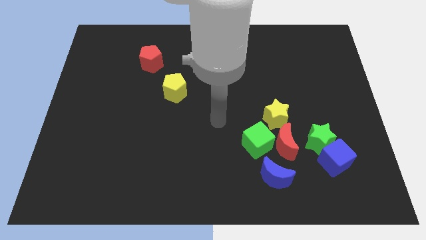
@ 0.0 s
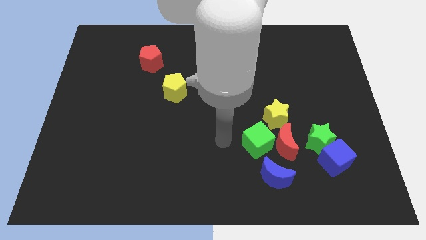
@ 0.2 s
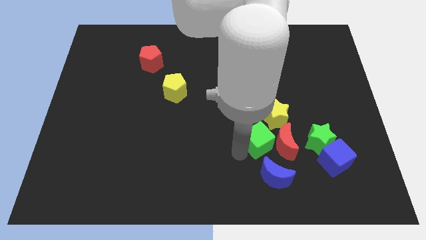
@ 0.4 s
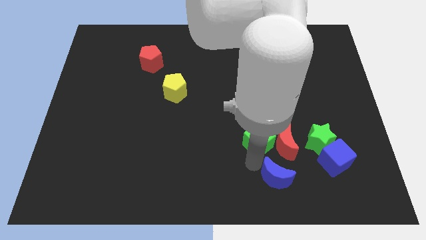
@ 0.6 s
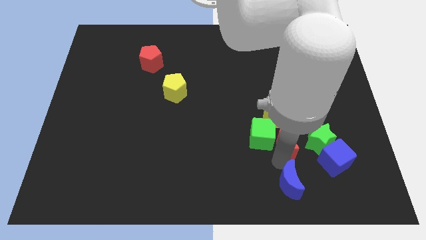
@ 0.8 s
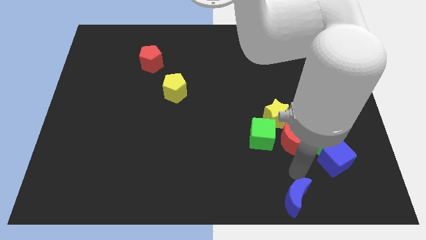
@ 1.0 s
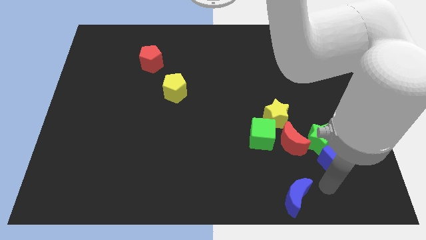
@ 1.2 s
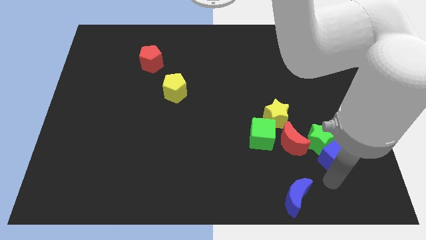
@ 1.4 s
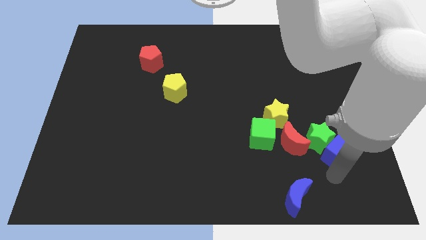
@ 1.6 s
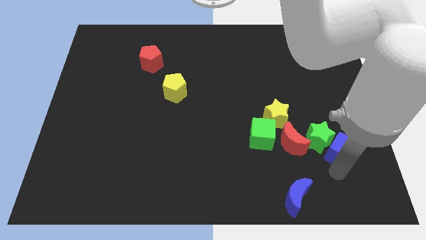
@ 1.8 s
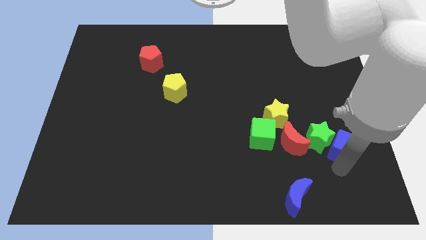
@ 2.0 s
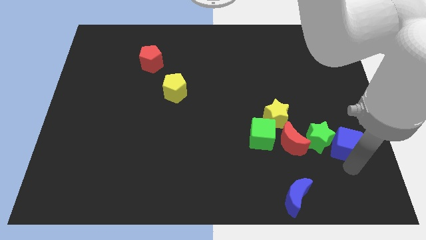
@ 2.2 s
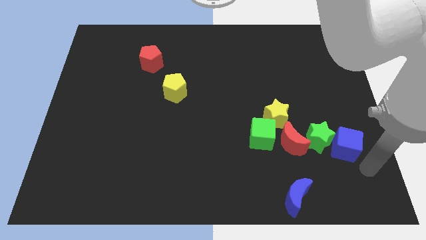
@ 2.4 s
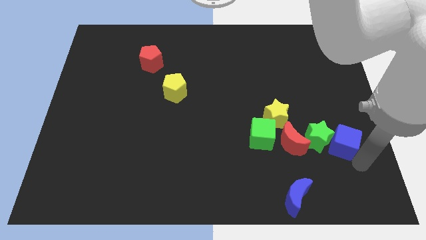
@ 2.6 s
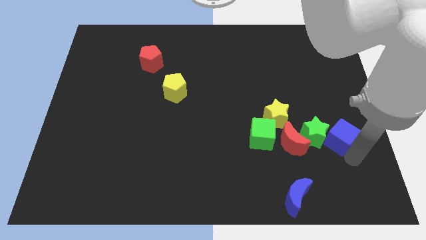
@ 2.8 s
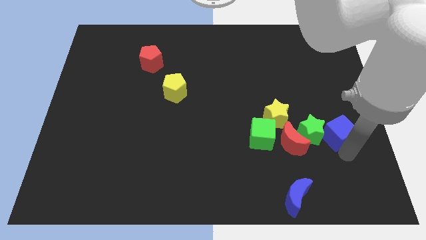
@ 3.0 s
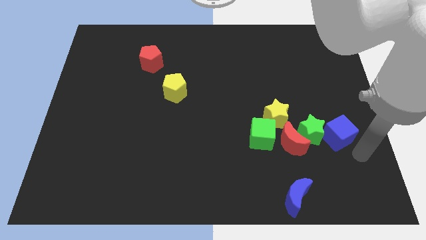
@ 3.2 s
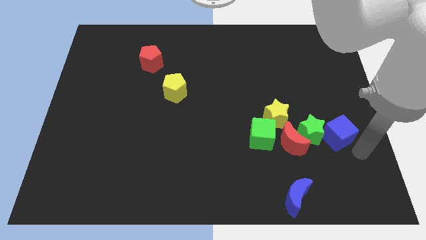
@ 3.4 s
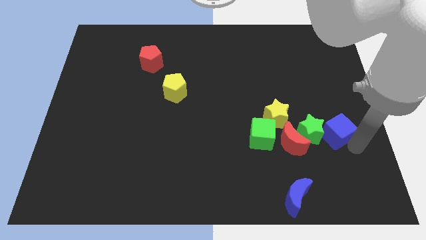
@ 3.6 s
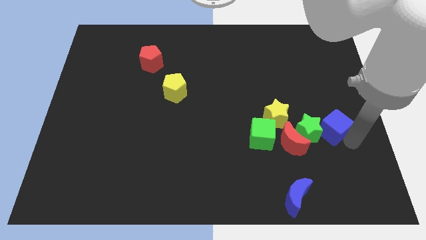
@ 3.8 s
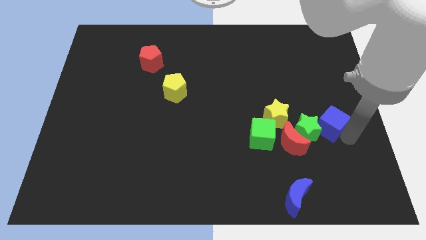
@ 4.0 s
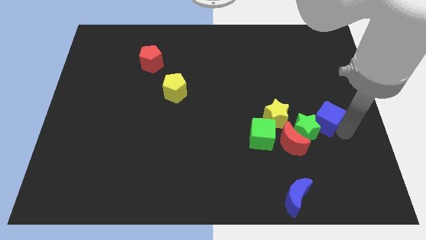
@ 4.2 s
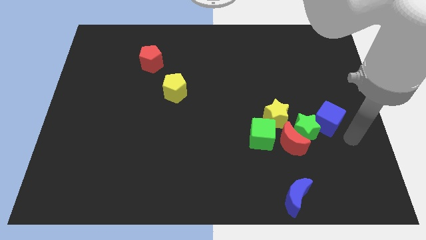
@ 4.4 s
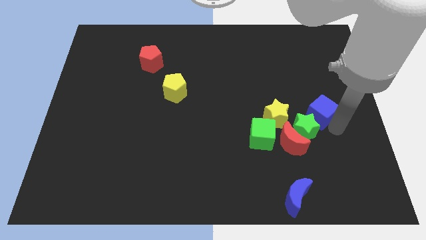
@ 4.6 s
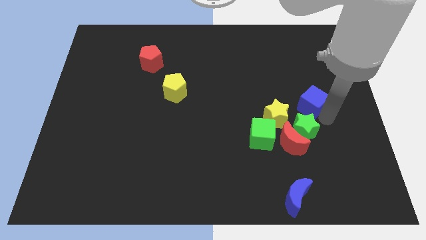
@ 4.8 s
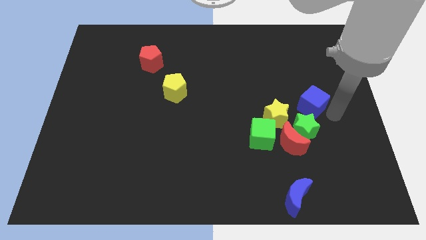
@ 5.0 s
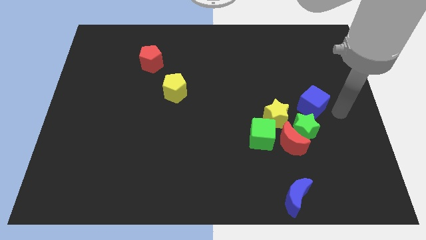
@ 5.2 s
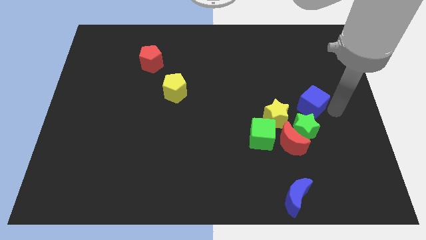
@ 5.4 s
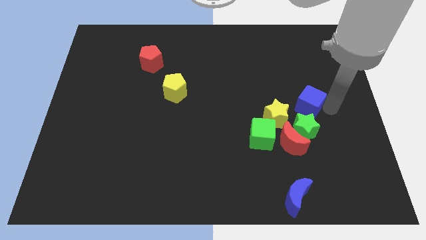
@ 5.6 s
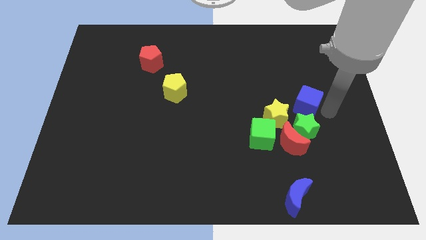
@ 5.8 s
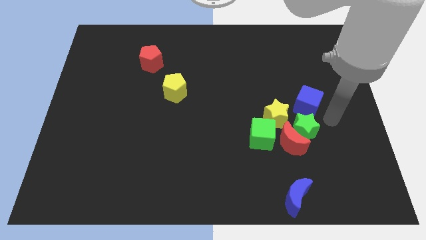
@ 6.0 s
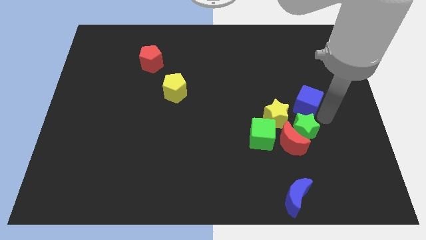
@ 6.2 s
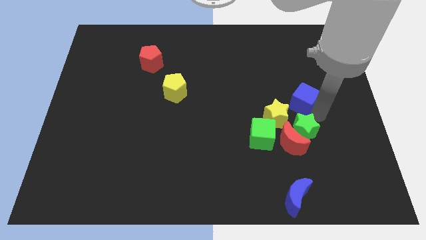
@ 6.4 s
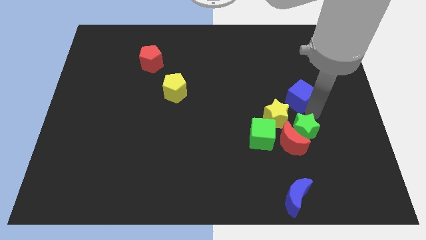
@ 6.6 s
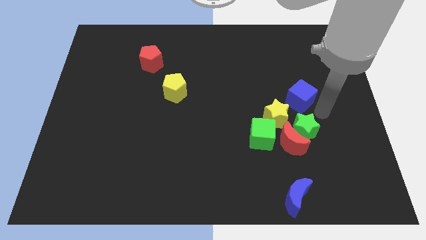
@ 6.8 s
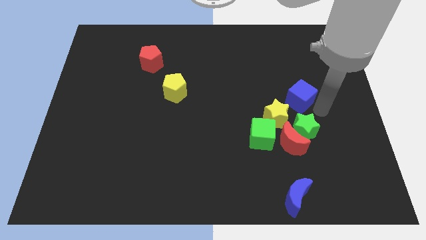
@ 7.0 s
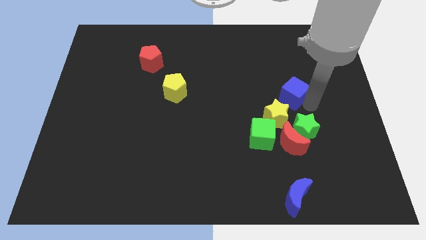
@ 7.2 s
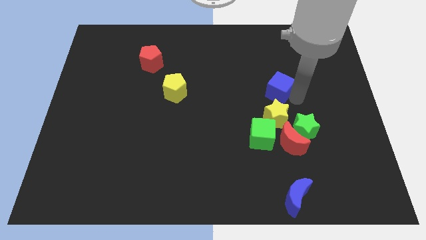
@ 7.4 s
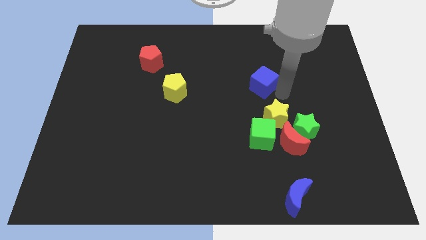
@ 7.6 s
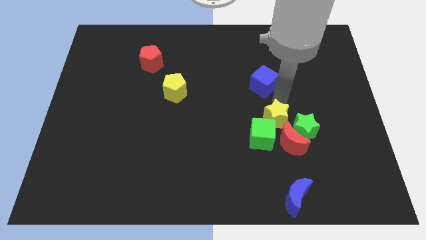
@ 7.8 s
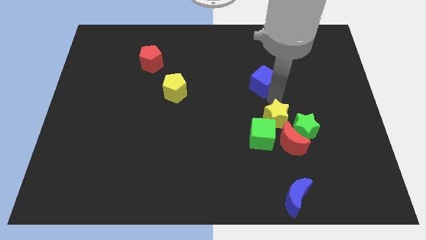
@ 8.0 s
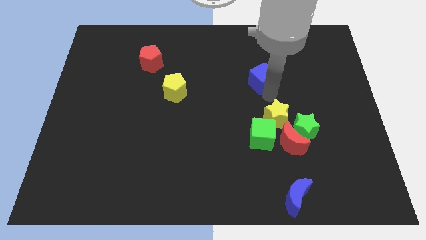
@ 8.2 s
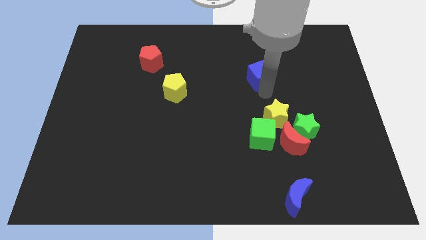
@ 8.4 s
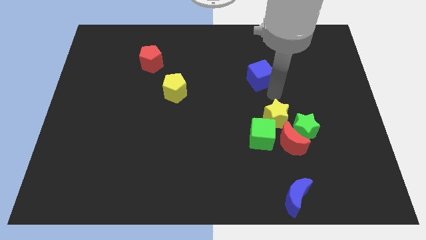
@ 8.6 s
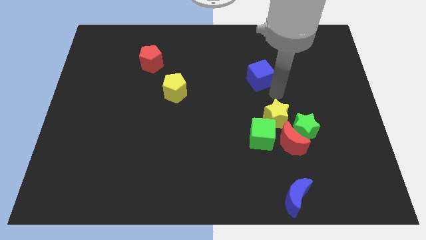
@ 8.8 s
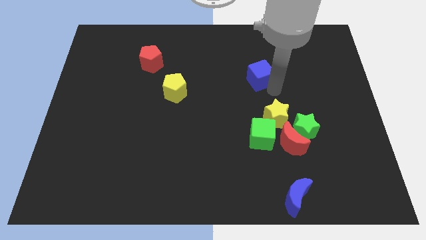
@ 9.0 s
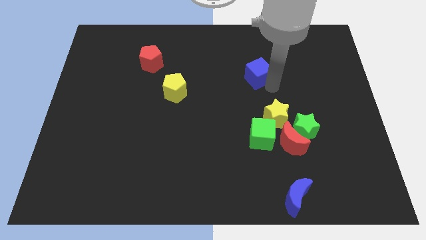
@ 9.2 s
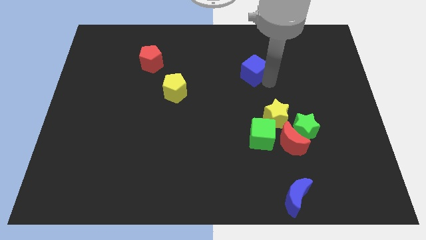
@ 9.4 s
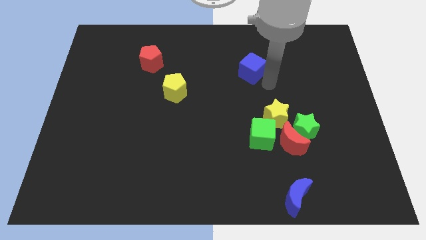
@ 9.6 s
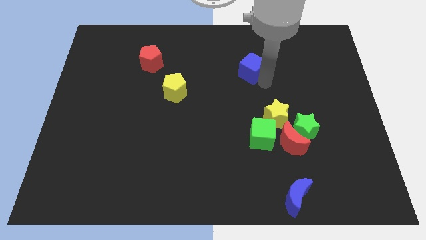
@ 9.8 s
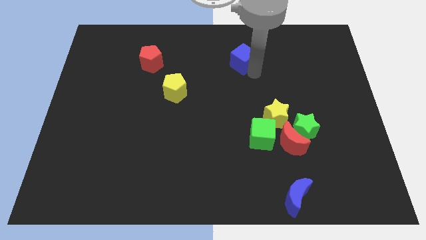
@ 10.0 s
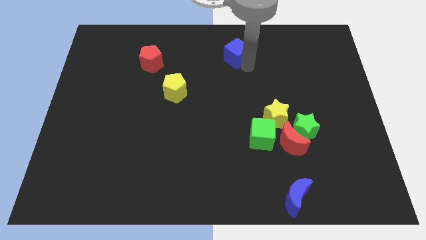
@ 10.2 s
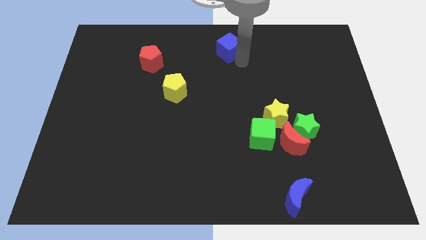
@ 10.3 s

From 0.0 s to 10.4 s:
move the blue cube to the towards your base

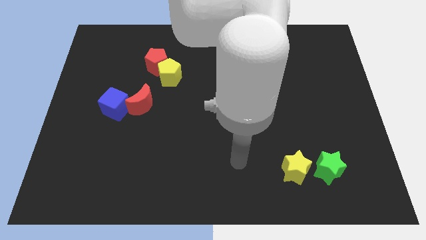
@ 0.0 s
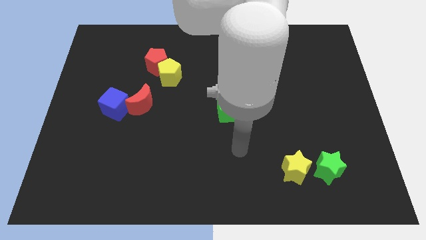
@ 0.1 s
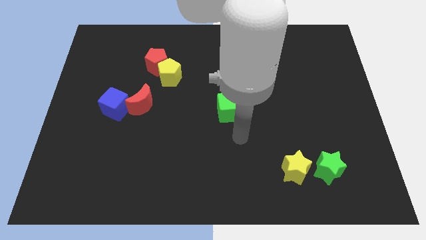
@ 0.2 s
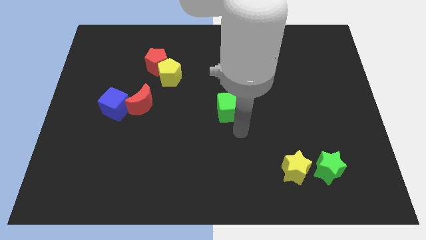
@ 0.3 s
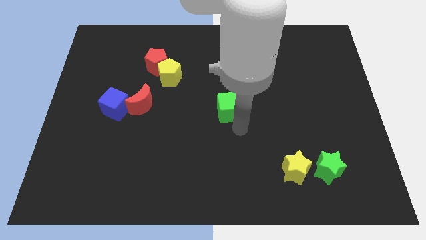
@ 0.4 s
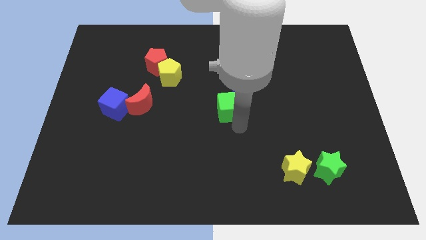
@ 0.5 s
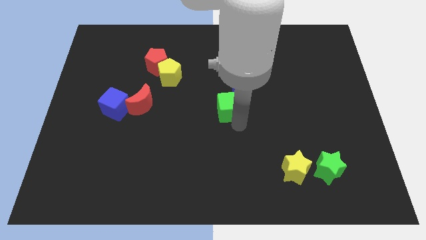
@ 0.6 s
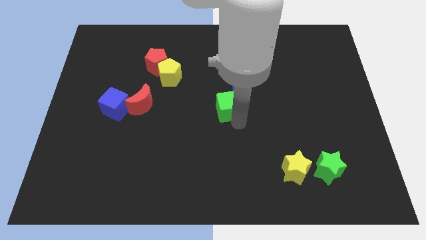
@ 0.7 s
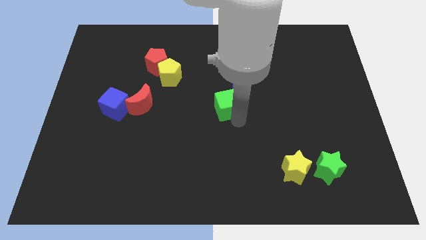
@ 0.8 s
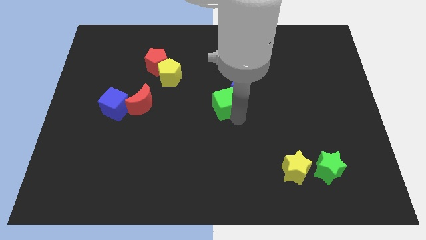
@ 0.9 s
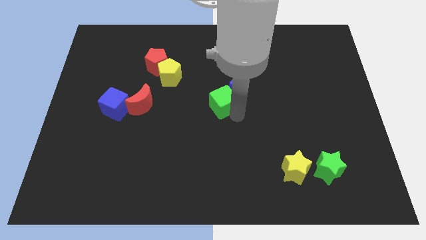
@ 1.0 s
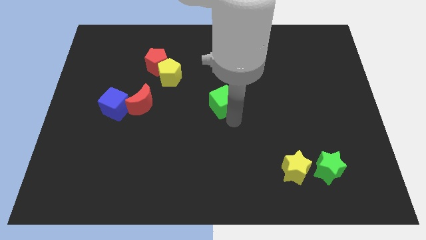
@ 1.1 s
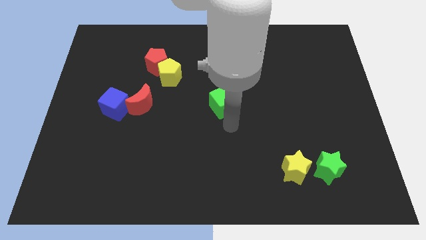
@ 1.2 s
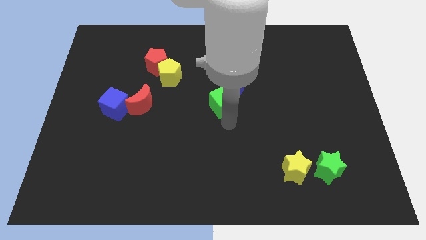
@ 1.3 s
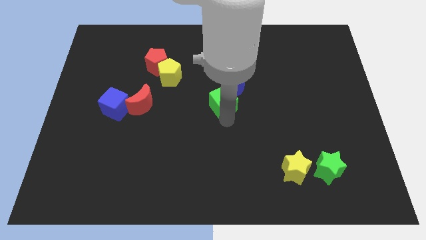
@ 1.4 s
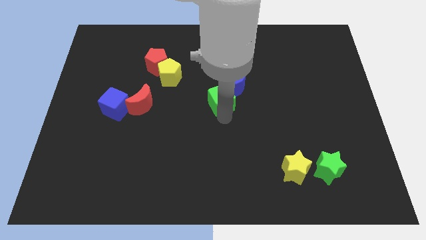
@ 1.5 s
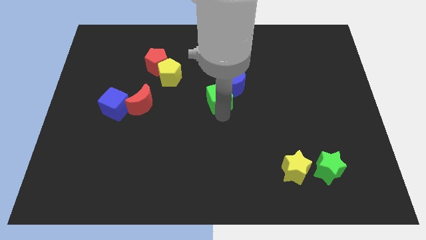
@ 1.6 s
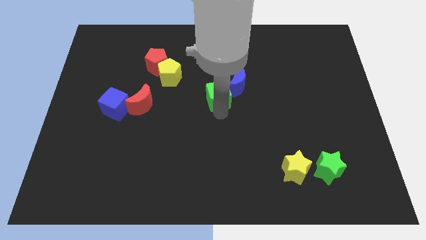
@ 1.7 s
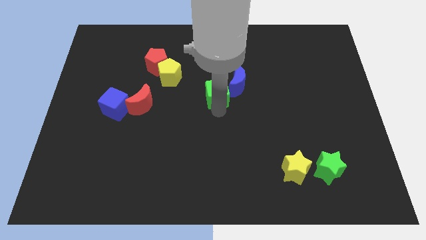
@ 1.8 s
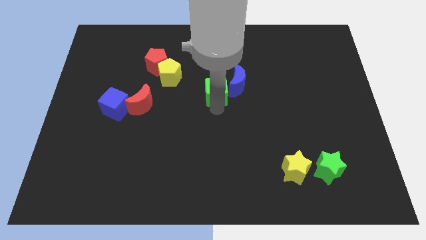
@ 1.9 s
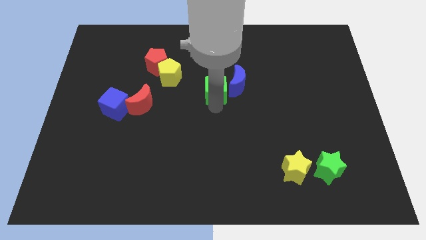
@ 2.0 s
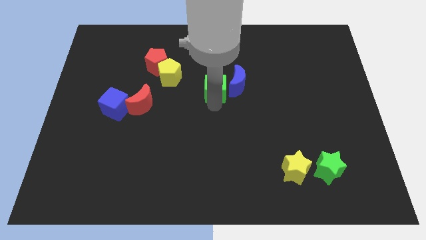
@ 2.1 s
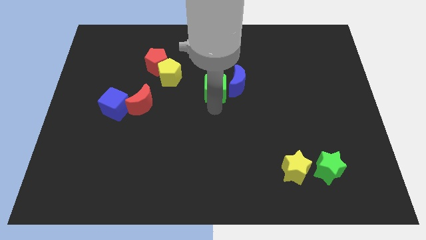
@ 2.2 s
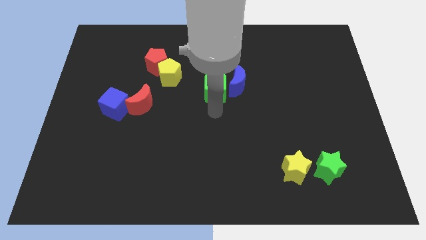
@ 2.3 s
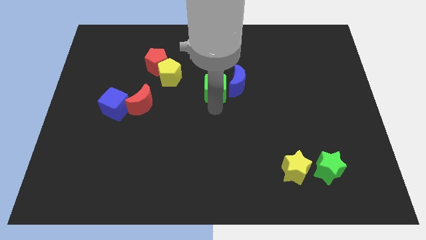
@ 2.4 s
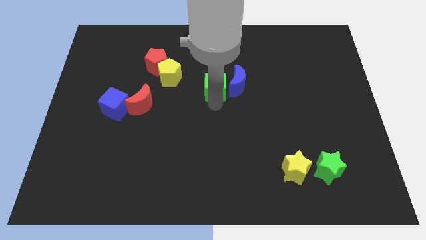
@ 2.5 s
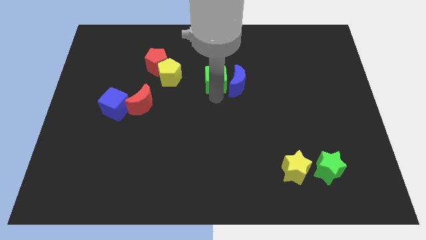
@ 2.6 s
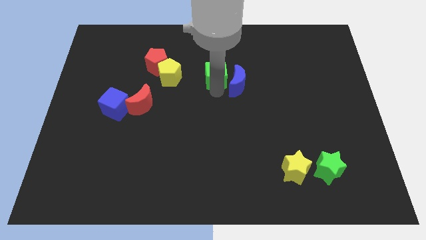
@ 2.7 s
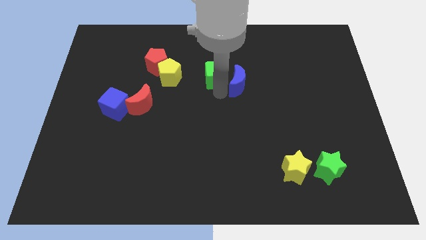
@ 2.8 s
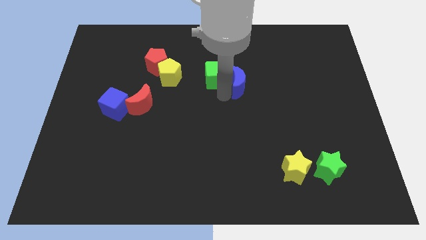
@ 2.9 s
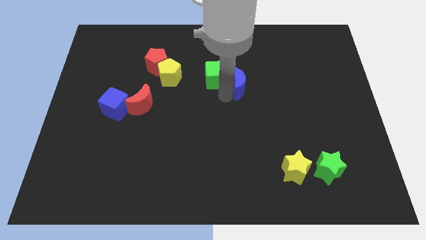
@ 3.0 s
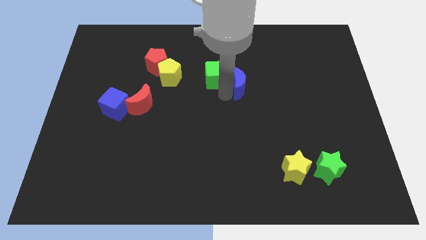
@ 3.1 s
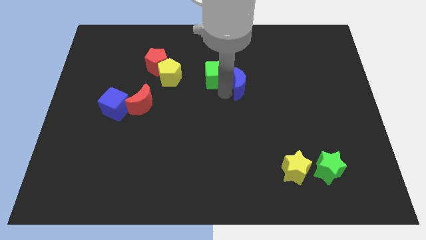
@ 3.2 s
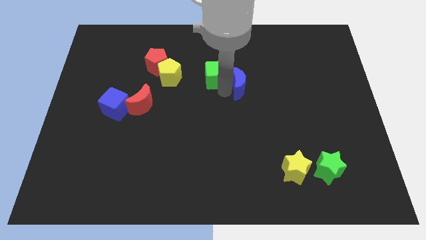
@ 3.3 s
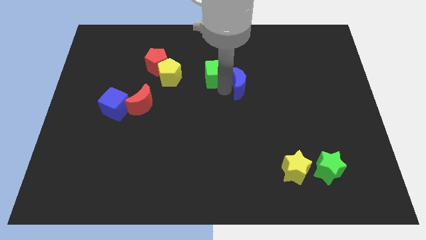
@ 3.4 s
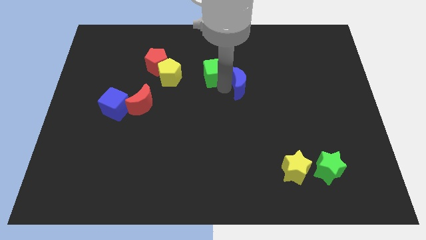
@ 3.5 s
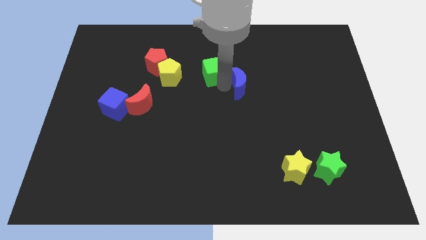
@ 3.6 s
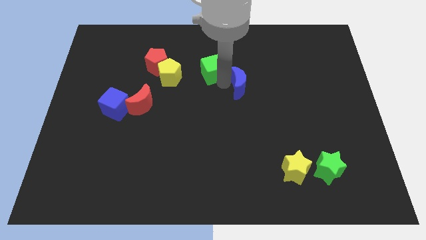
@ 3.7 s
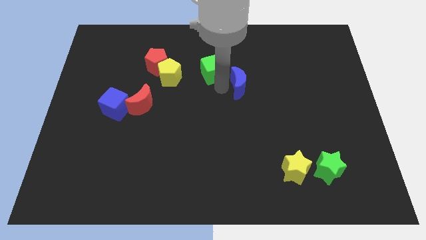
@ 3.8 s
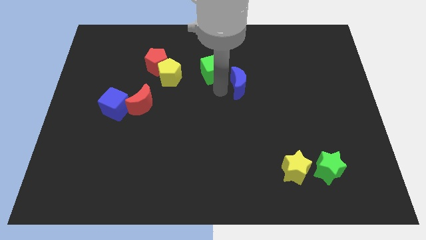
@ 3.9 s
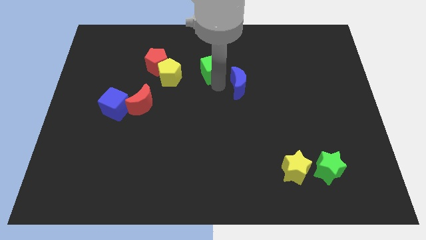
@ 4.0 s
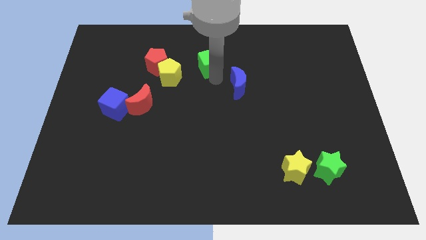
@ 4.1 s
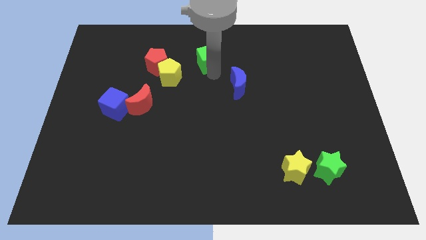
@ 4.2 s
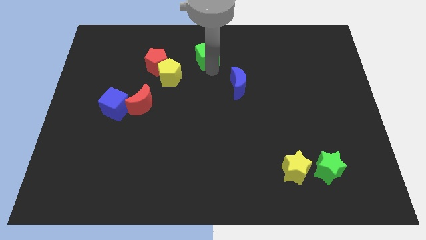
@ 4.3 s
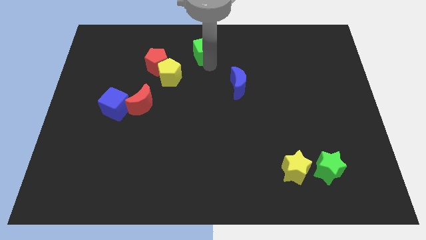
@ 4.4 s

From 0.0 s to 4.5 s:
push the green cube to the top side
